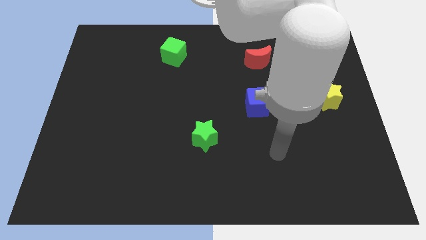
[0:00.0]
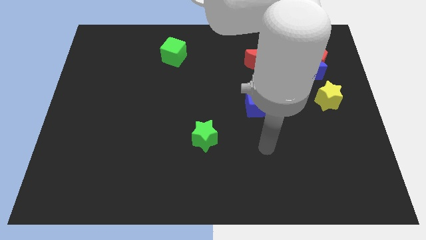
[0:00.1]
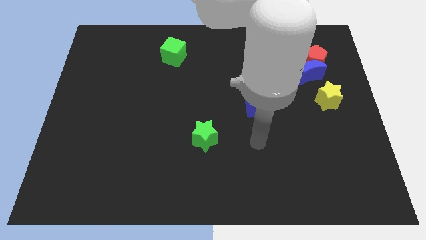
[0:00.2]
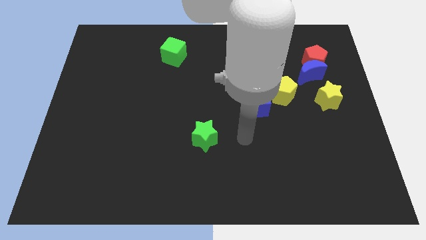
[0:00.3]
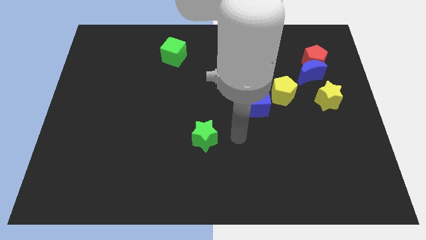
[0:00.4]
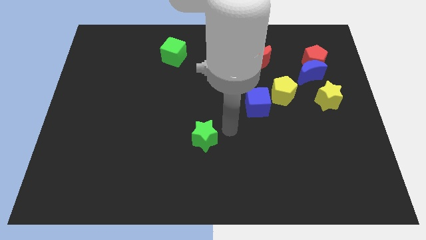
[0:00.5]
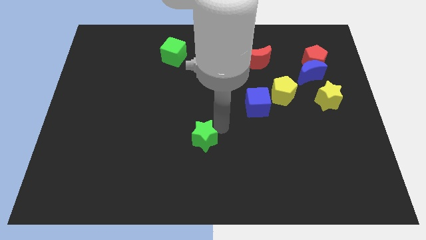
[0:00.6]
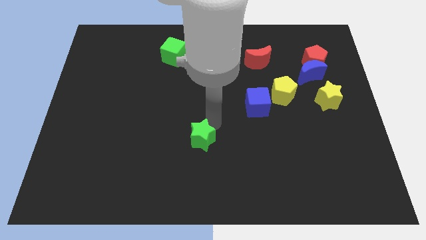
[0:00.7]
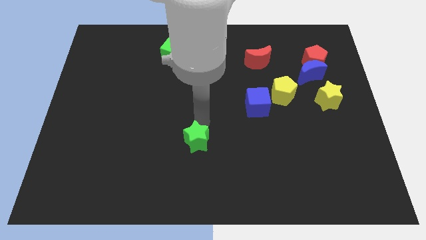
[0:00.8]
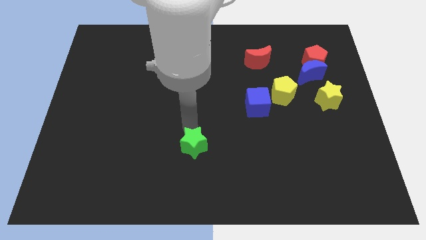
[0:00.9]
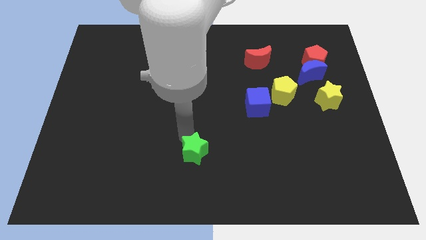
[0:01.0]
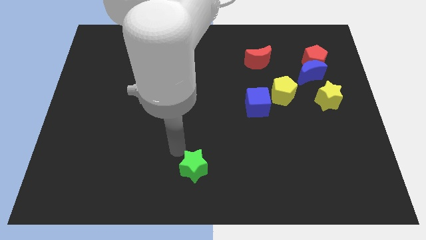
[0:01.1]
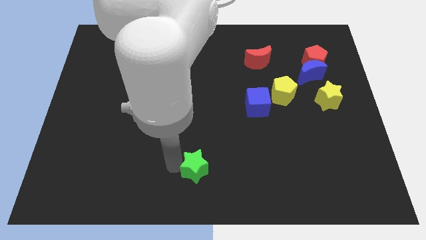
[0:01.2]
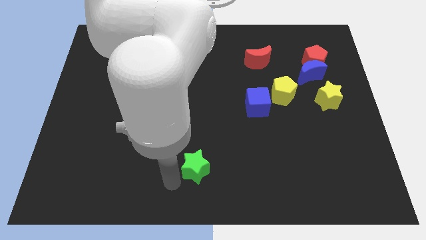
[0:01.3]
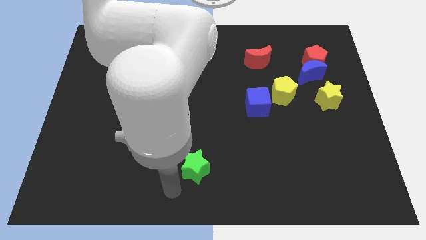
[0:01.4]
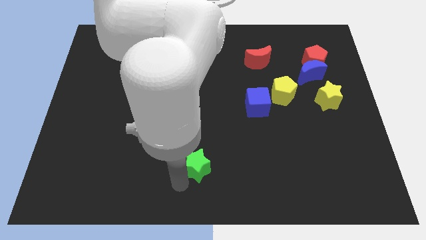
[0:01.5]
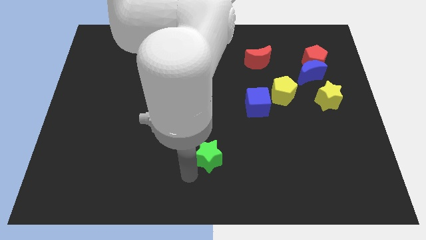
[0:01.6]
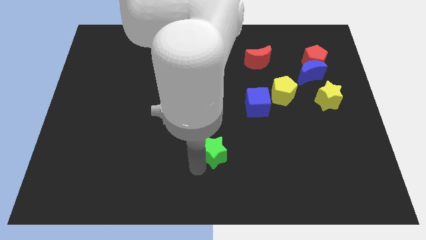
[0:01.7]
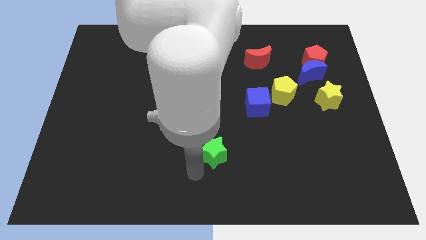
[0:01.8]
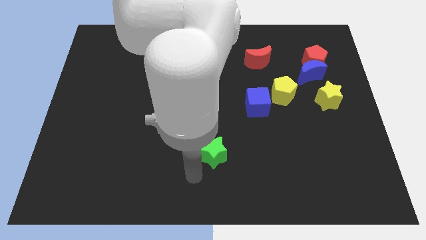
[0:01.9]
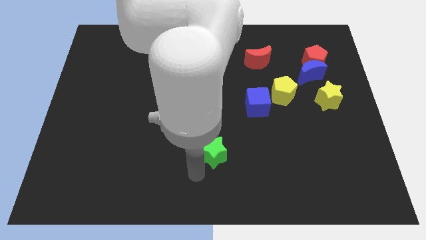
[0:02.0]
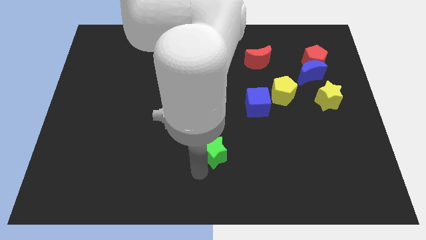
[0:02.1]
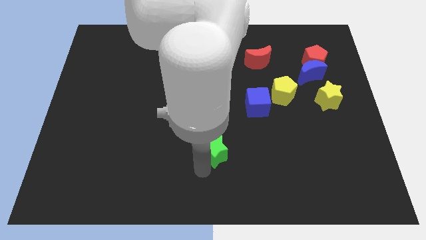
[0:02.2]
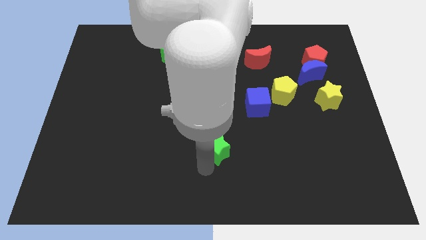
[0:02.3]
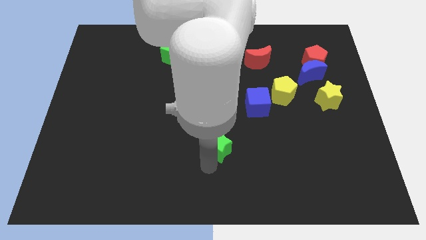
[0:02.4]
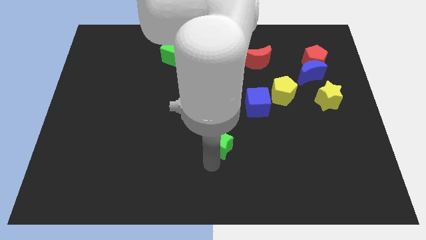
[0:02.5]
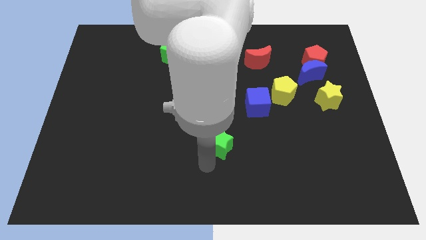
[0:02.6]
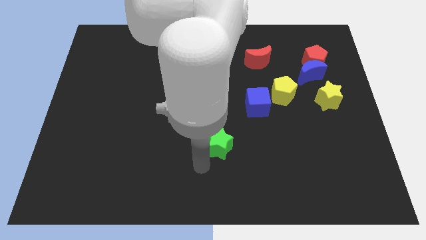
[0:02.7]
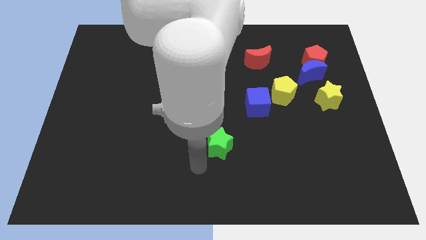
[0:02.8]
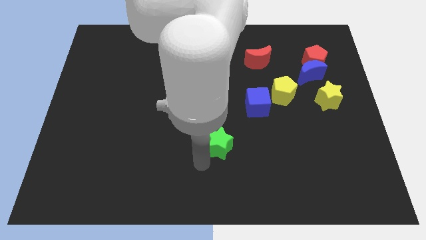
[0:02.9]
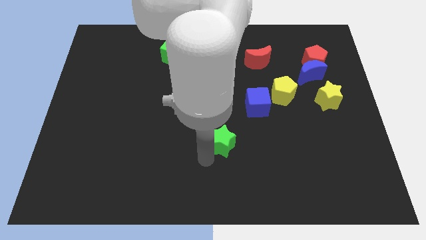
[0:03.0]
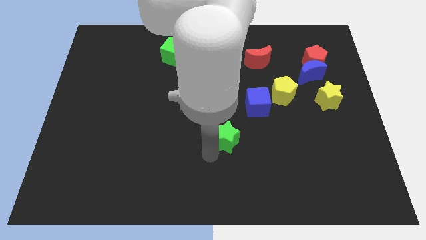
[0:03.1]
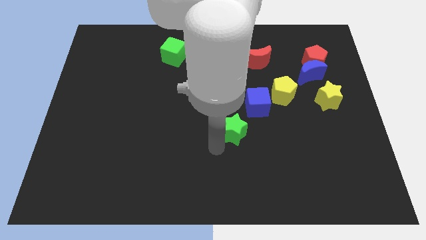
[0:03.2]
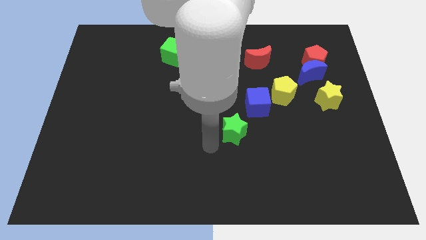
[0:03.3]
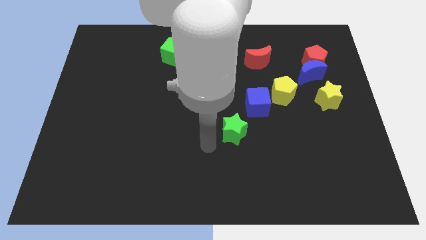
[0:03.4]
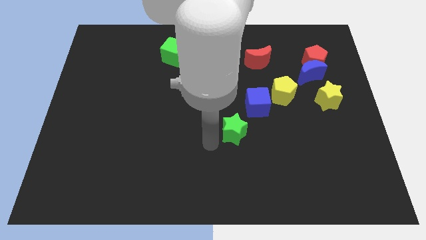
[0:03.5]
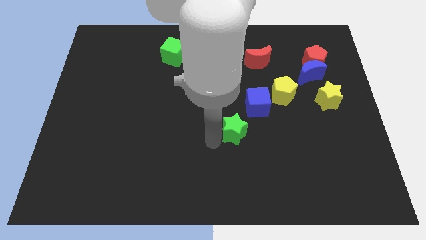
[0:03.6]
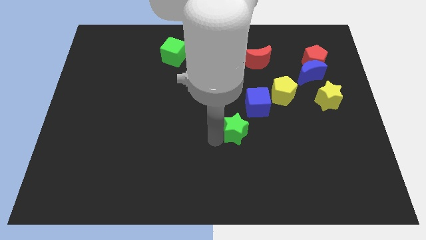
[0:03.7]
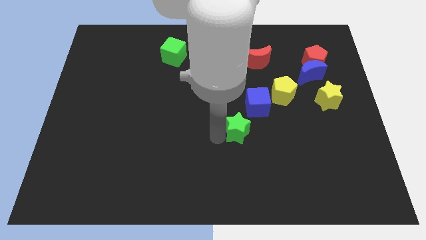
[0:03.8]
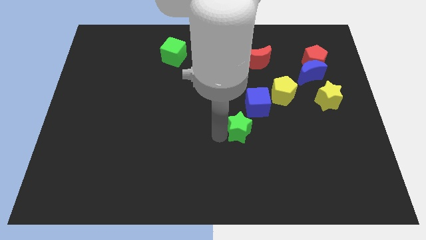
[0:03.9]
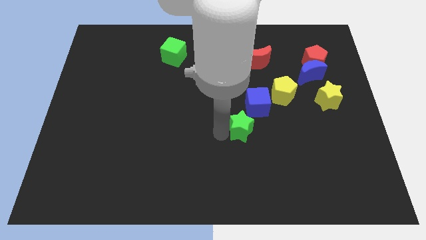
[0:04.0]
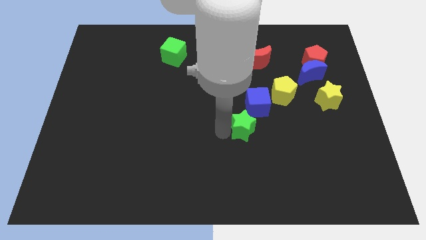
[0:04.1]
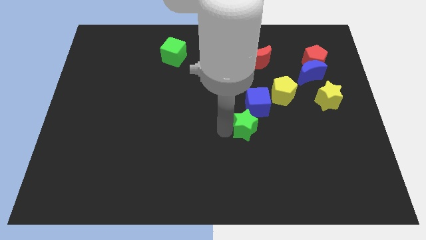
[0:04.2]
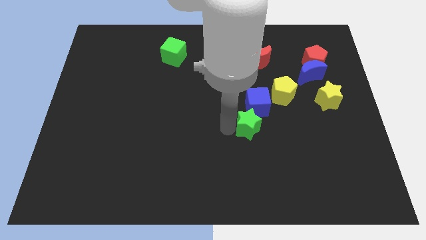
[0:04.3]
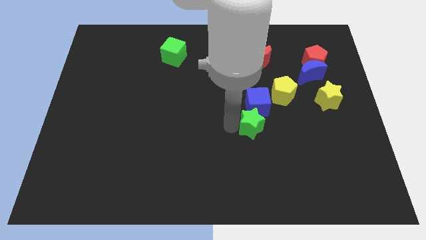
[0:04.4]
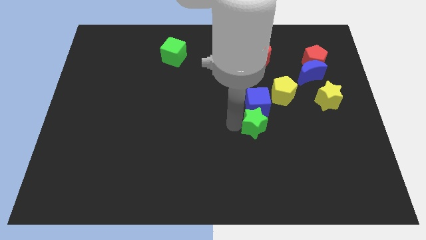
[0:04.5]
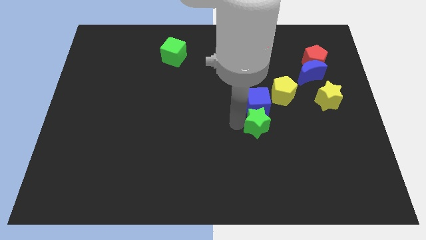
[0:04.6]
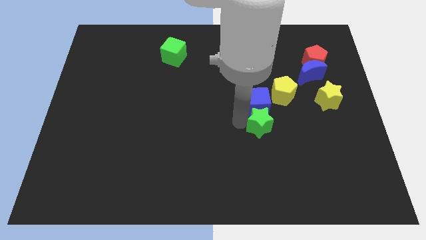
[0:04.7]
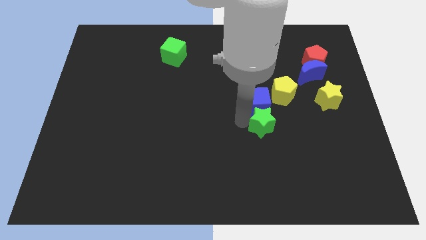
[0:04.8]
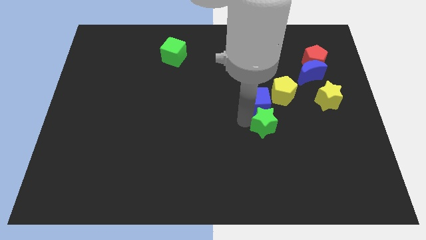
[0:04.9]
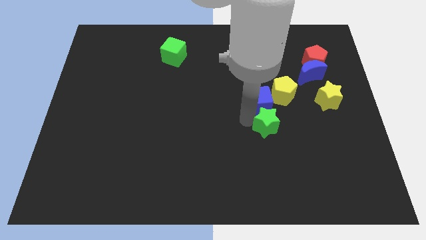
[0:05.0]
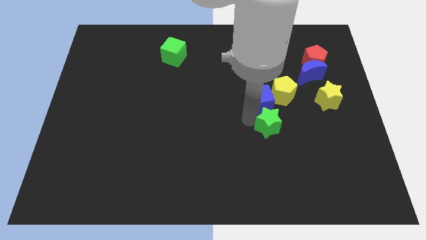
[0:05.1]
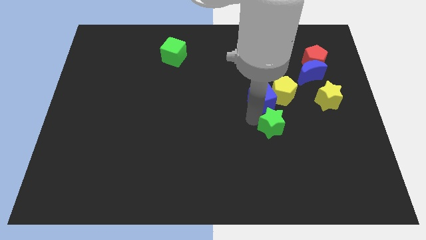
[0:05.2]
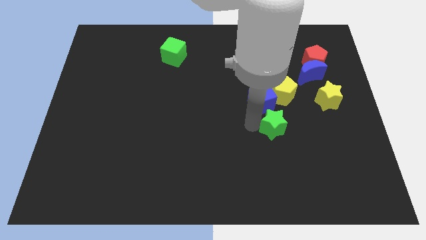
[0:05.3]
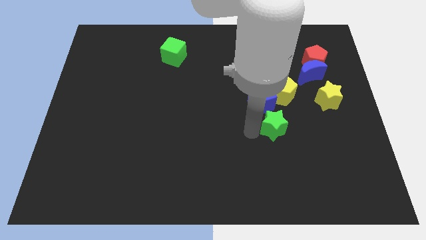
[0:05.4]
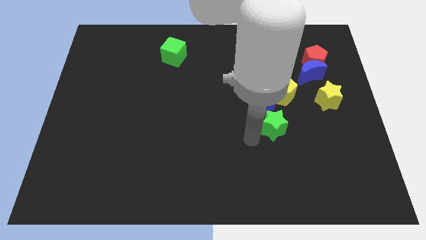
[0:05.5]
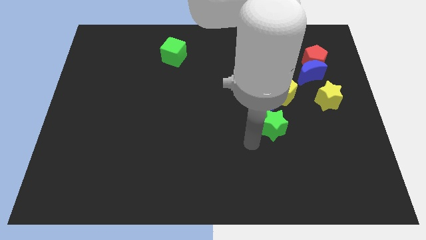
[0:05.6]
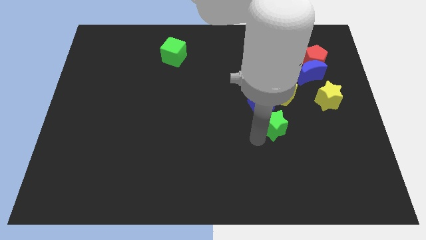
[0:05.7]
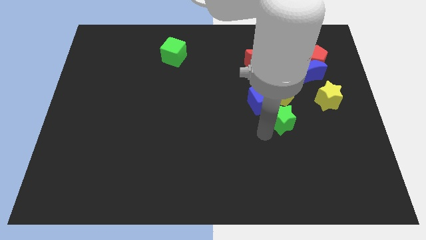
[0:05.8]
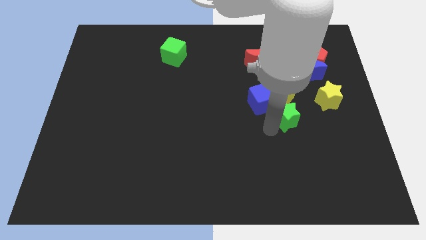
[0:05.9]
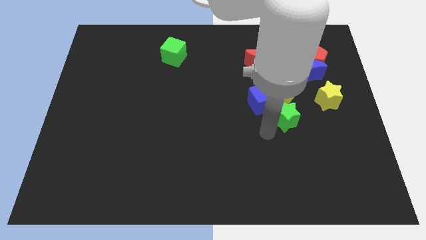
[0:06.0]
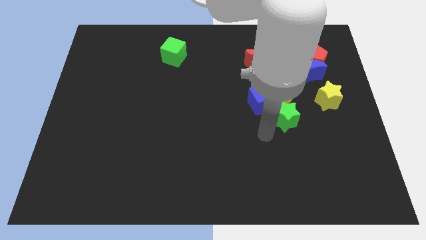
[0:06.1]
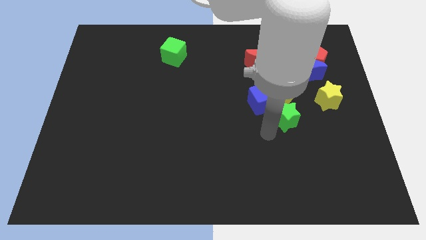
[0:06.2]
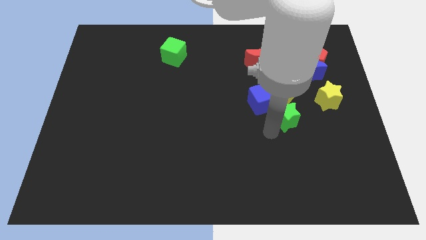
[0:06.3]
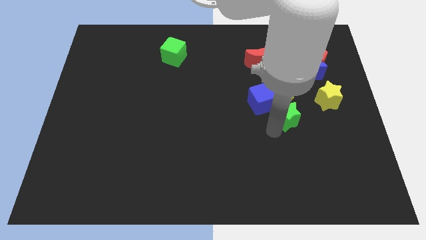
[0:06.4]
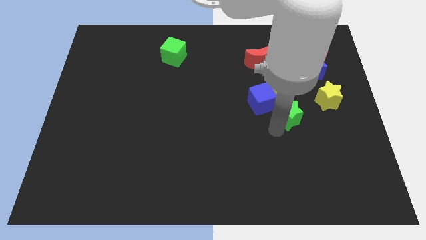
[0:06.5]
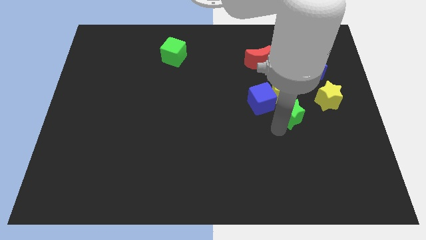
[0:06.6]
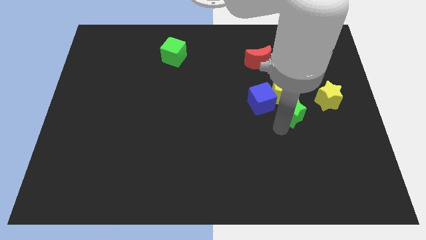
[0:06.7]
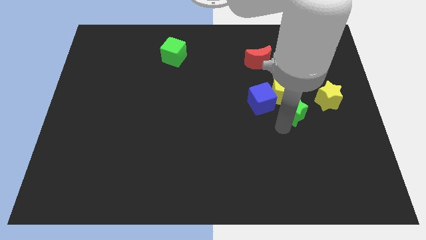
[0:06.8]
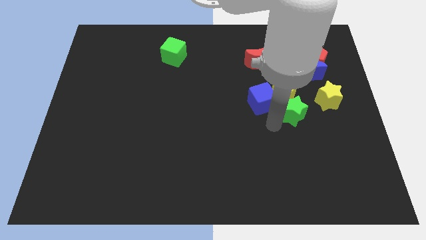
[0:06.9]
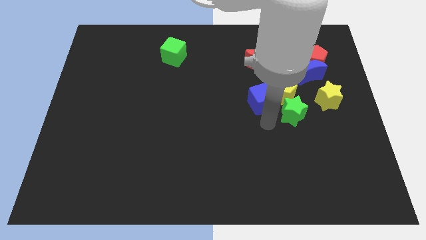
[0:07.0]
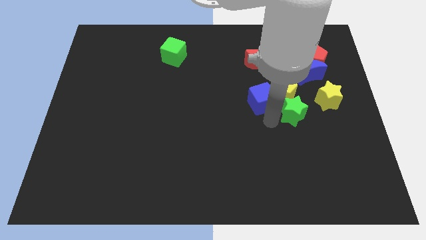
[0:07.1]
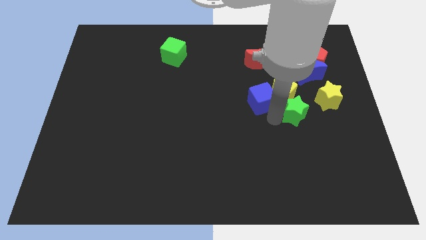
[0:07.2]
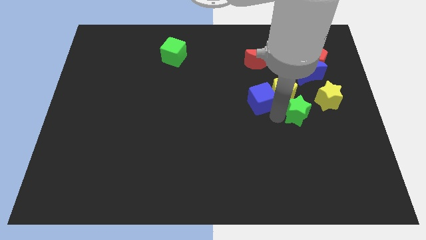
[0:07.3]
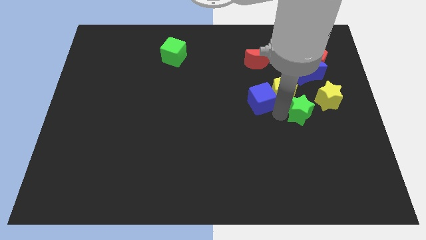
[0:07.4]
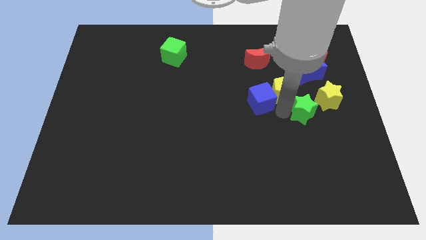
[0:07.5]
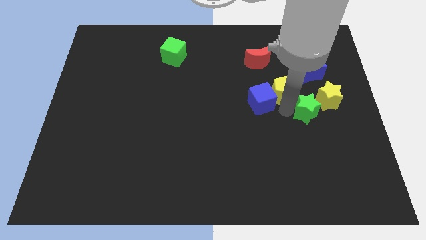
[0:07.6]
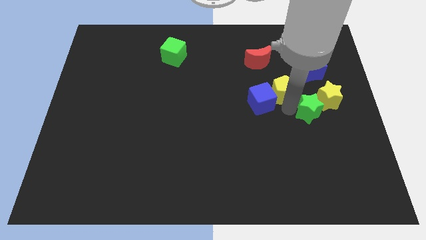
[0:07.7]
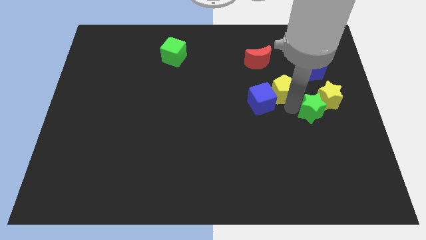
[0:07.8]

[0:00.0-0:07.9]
put the green star to the yellow star
